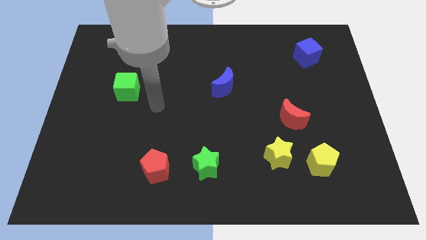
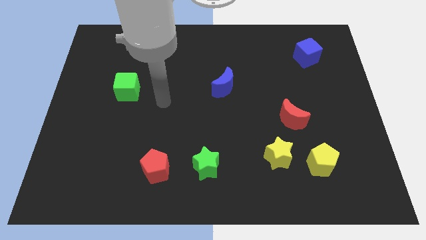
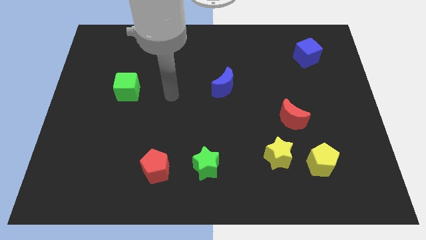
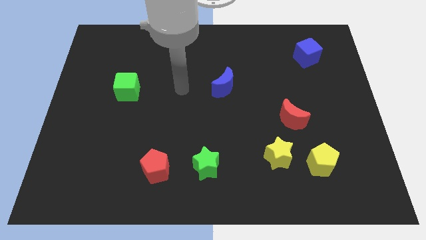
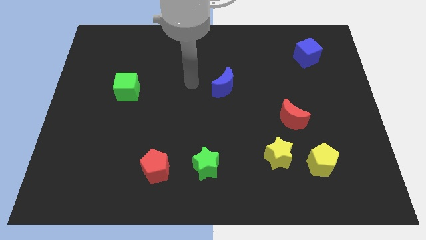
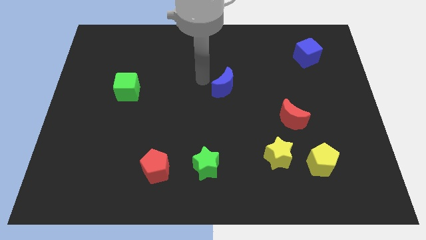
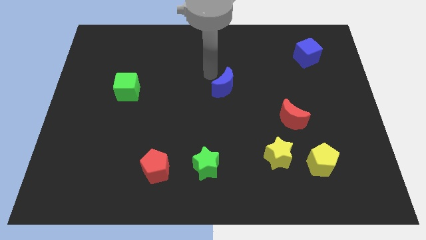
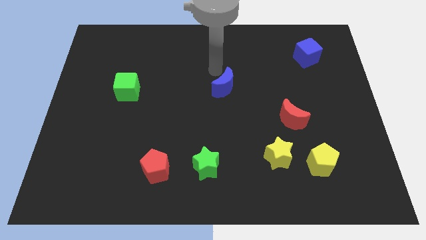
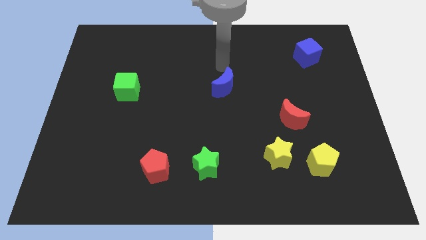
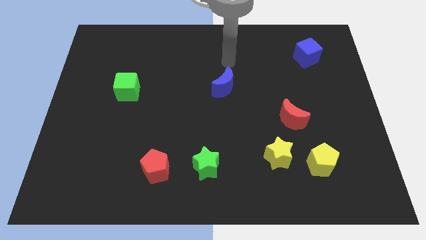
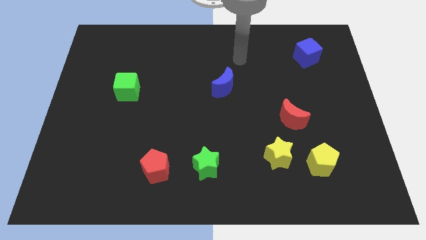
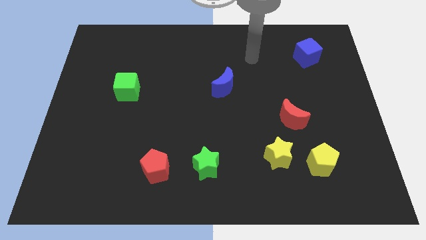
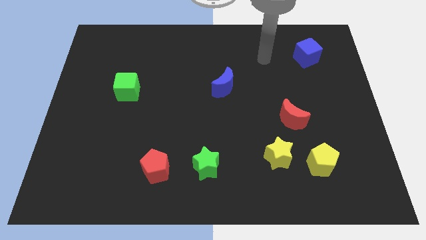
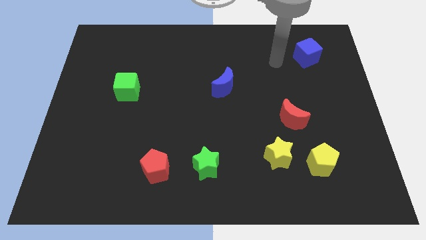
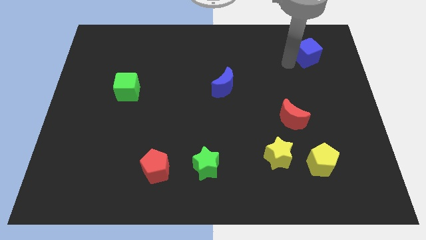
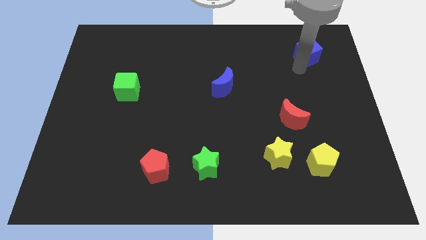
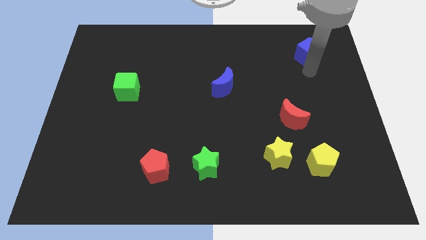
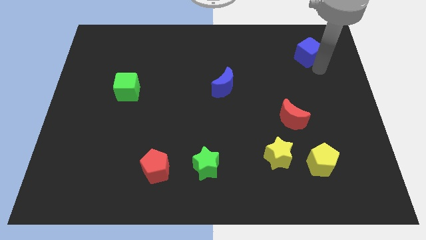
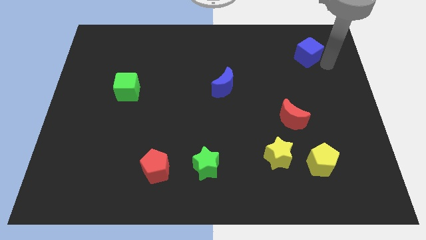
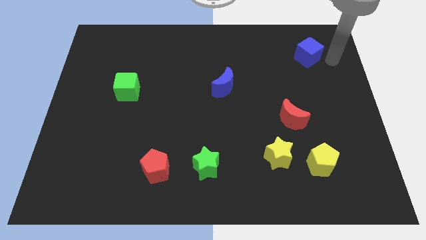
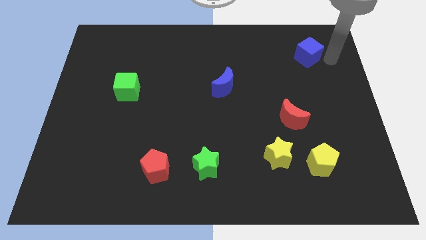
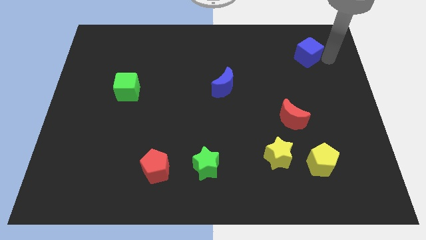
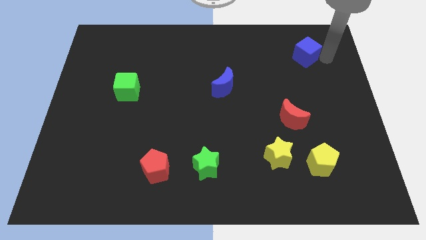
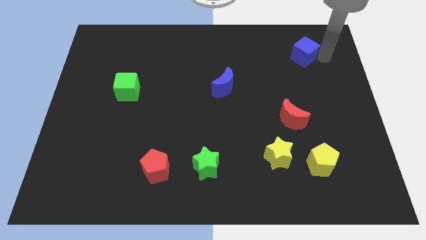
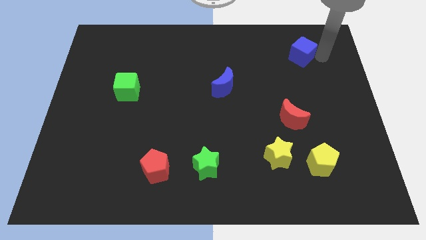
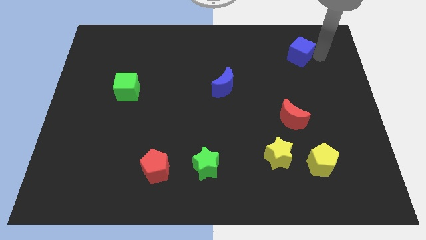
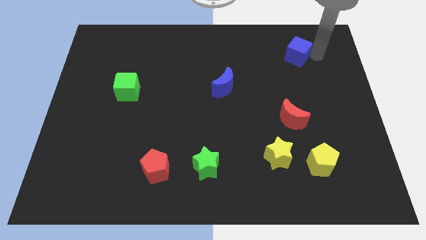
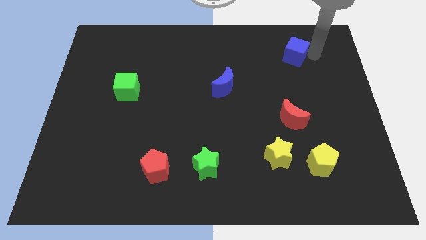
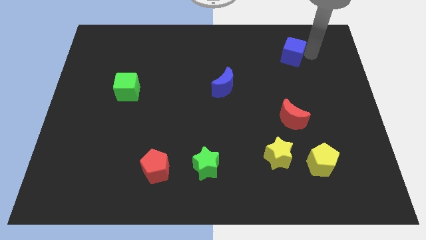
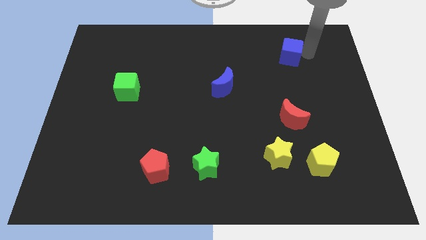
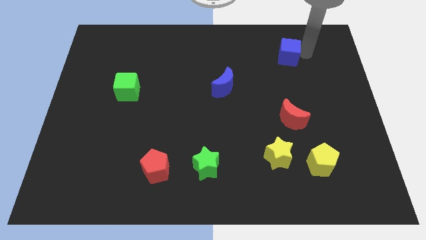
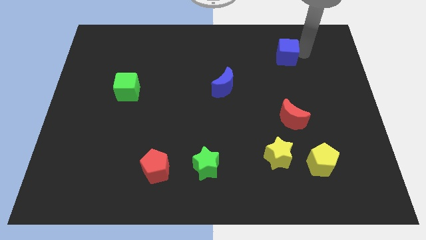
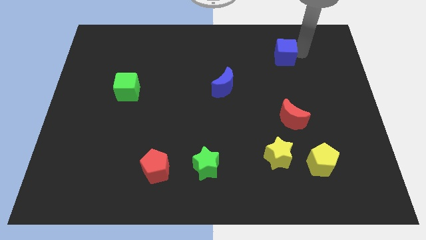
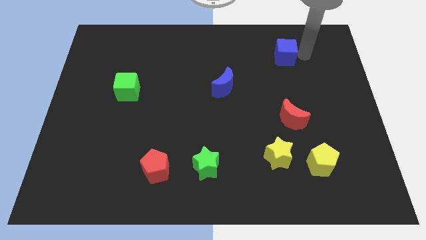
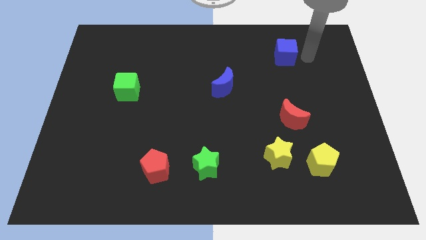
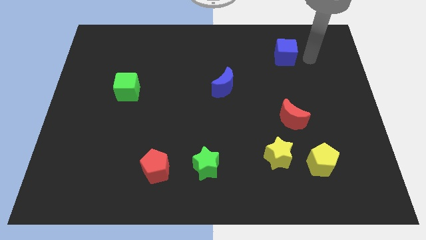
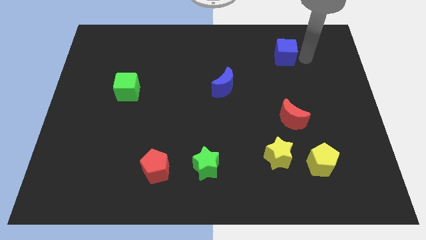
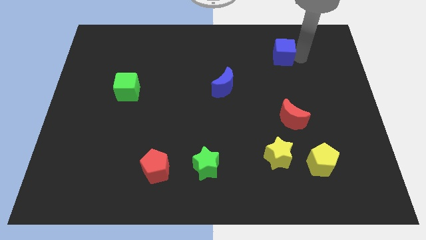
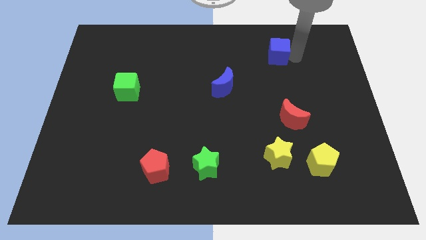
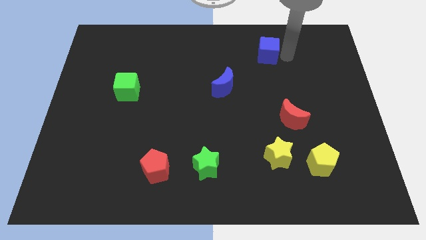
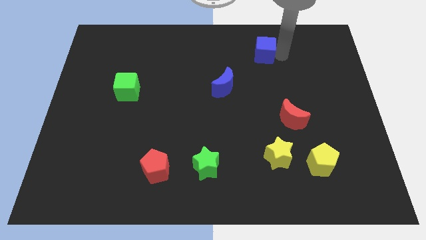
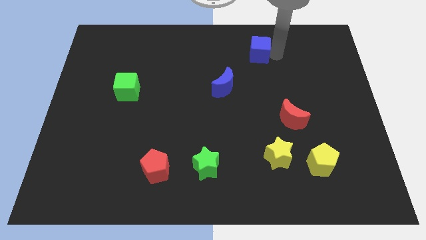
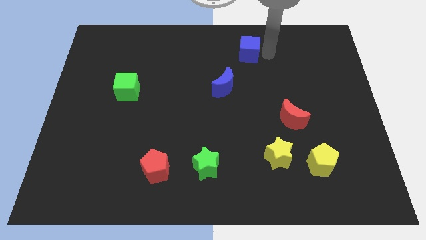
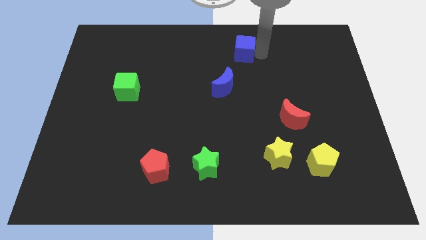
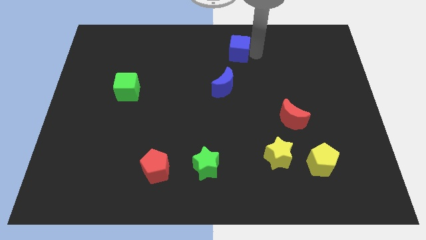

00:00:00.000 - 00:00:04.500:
push the blue cube to the top side

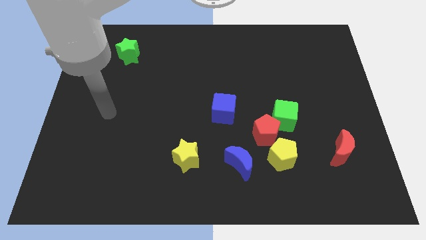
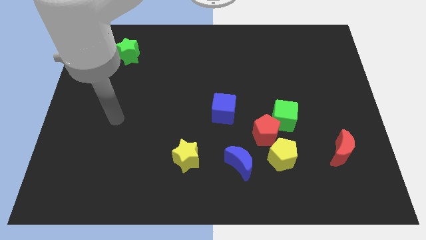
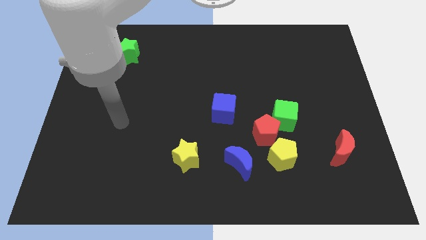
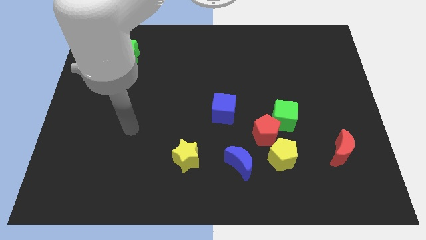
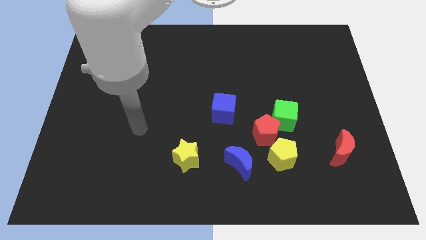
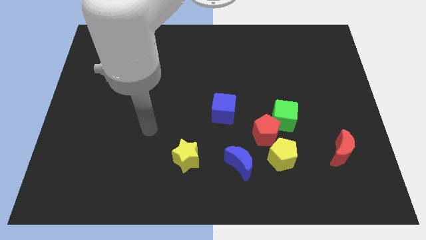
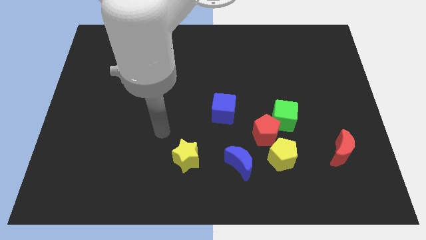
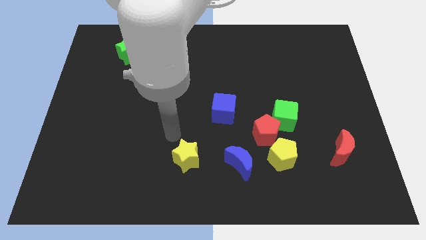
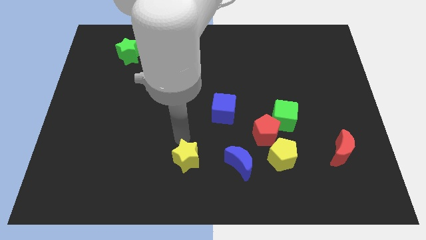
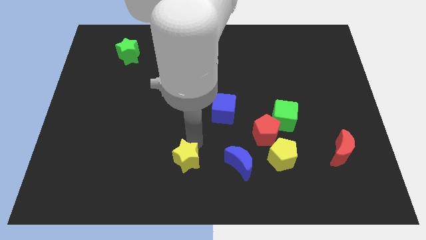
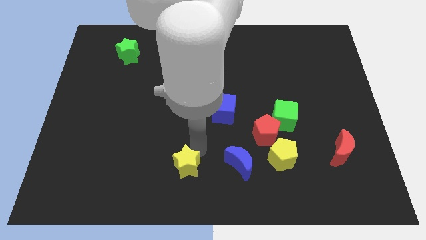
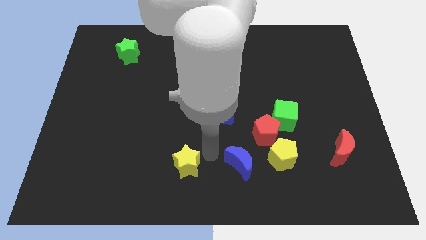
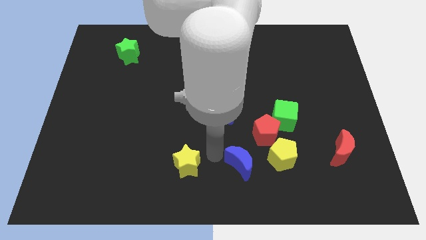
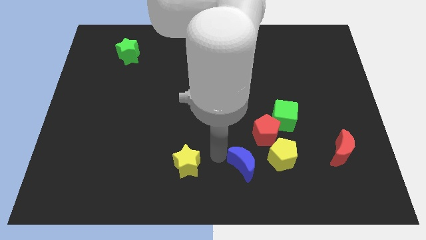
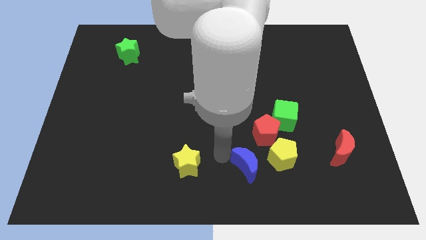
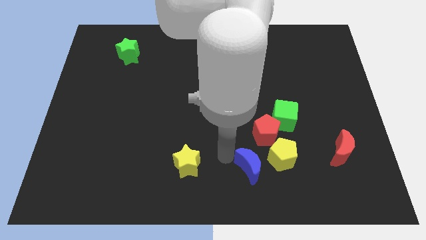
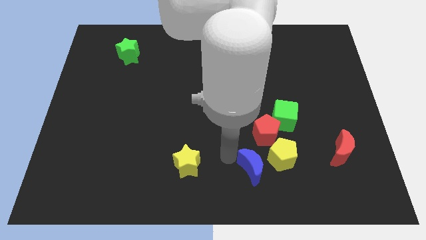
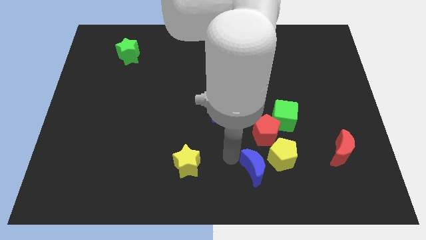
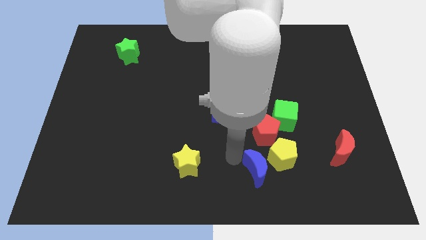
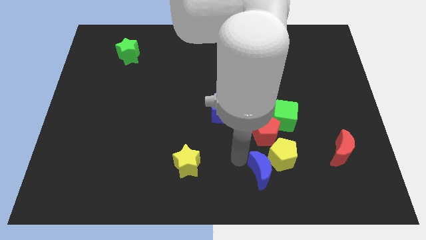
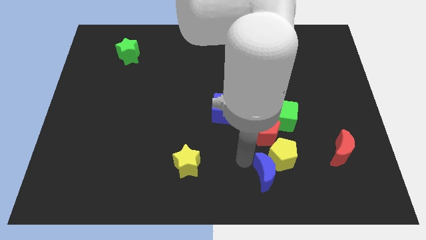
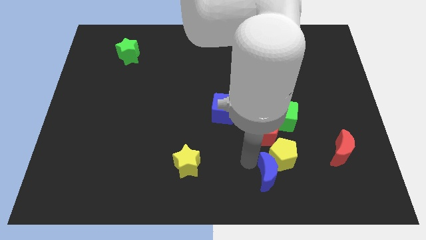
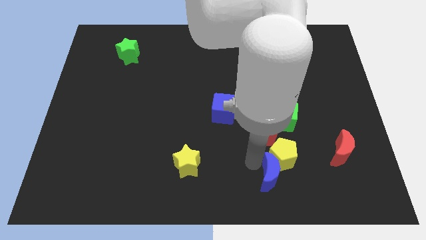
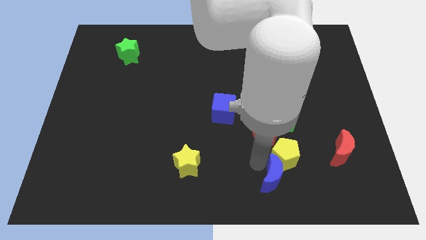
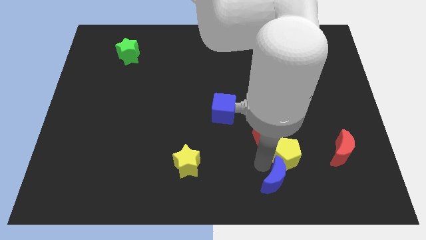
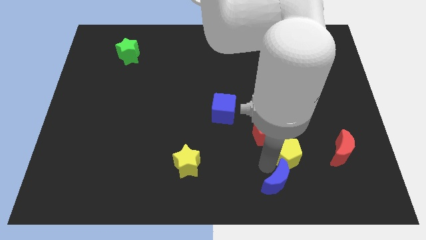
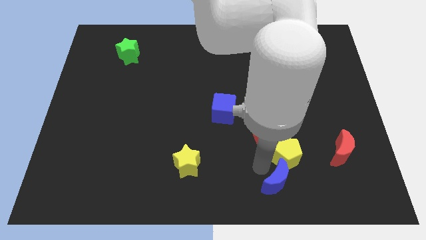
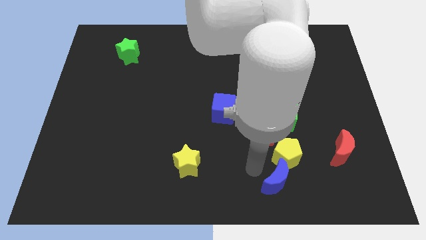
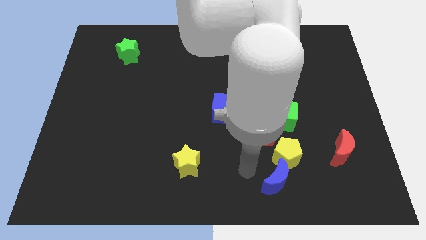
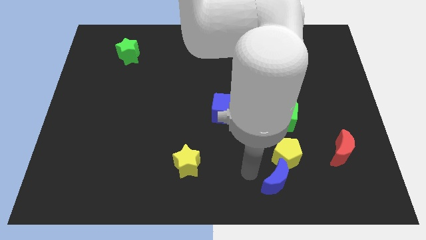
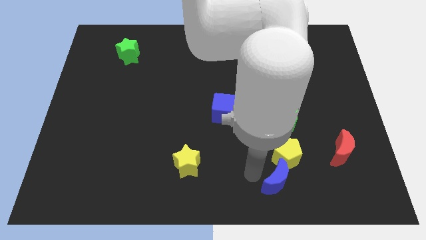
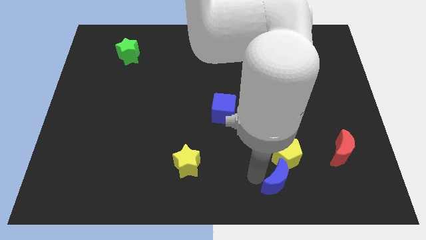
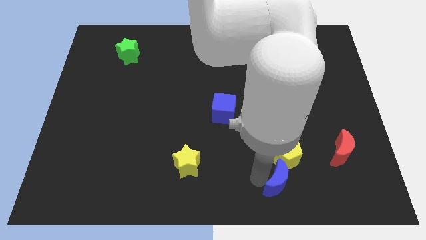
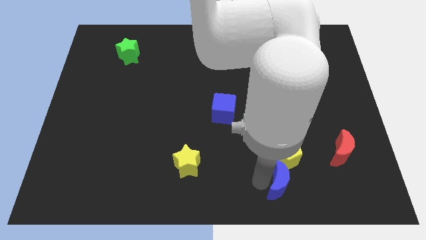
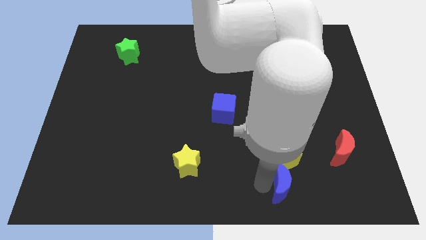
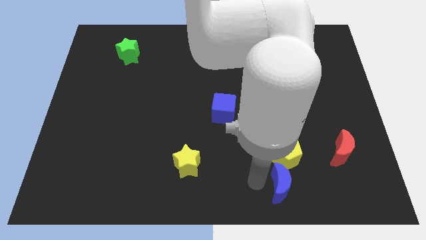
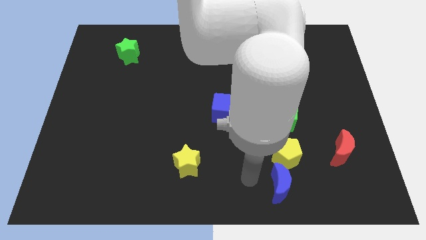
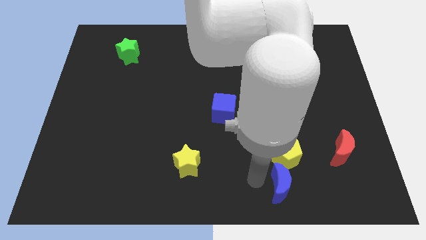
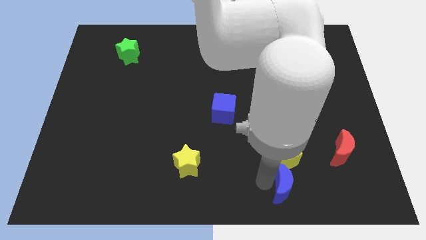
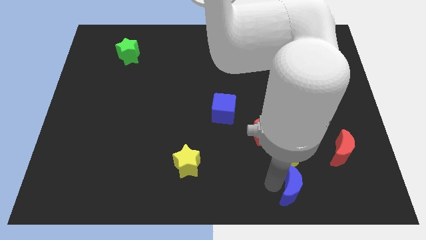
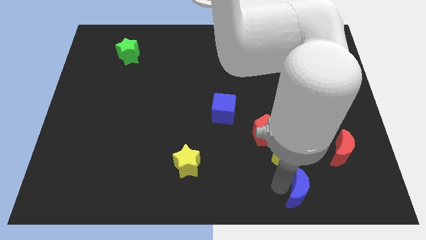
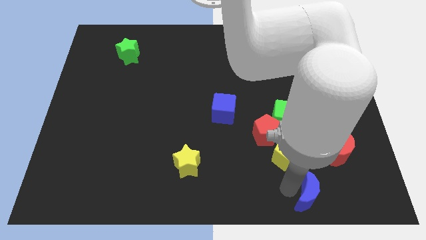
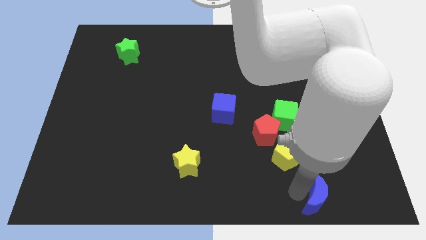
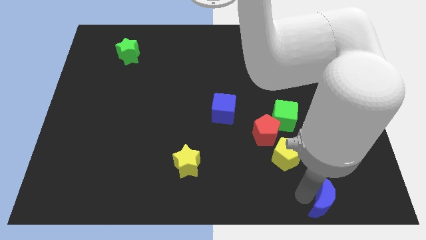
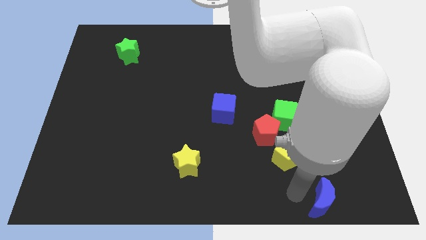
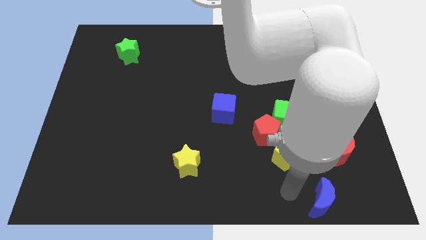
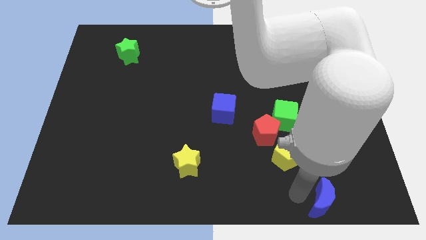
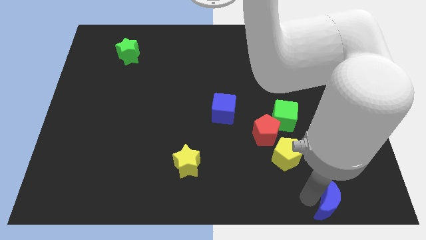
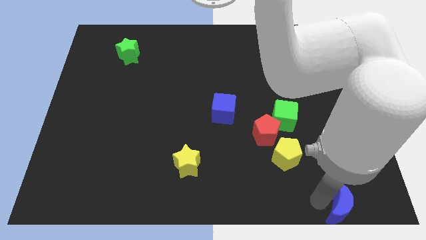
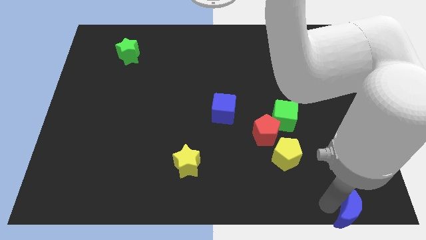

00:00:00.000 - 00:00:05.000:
put the blue moon to the bottom right of the board
